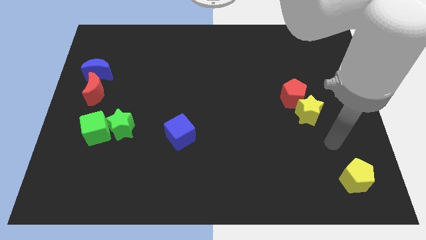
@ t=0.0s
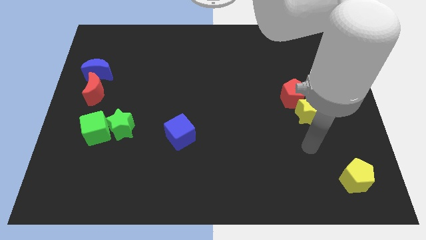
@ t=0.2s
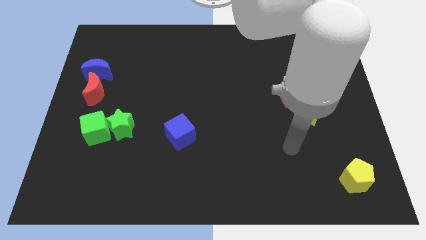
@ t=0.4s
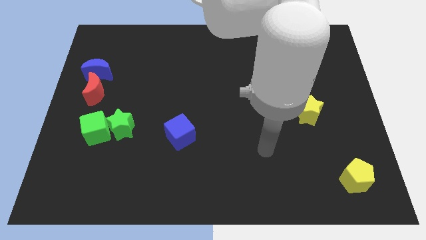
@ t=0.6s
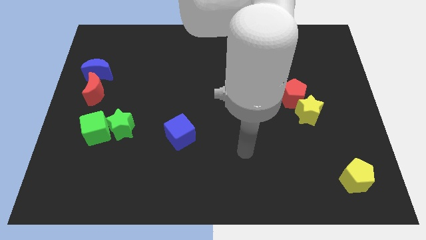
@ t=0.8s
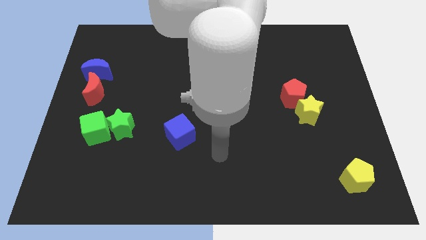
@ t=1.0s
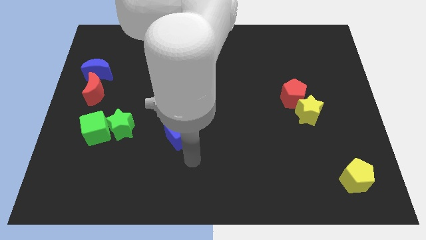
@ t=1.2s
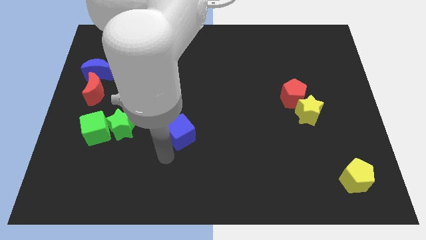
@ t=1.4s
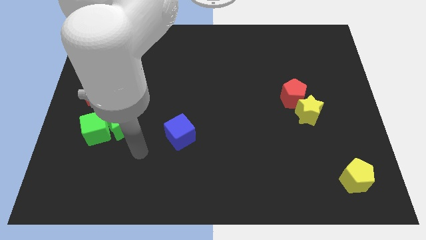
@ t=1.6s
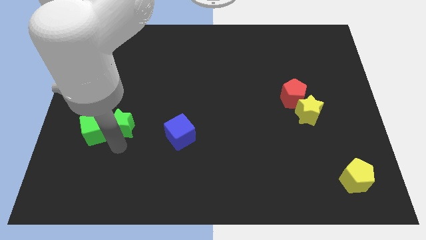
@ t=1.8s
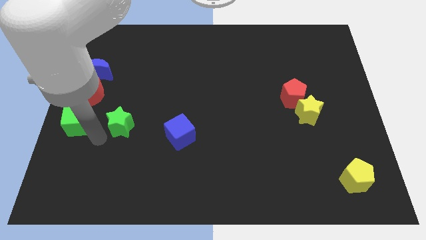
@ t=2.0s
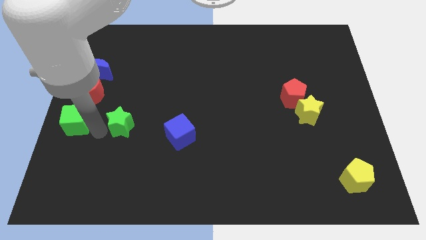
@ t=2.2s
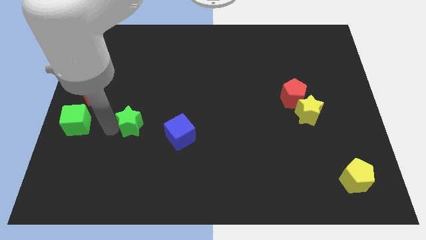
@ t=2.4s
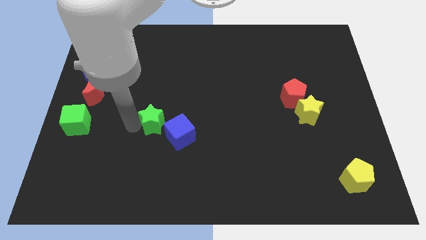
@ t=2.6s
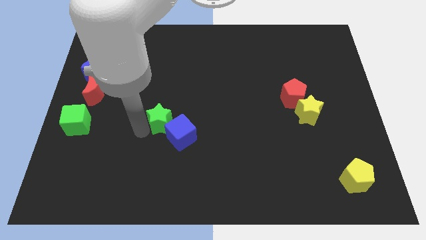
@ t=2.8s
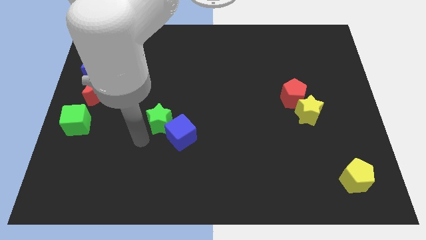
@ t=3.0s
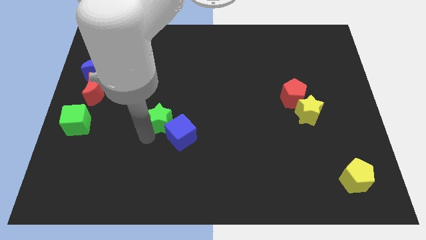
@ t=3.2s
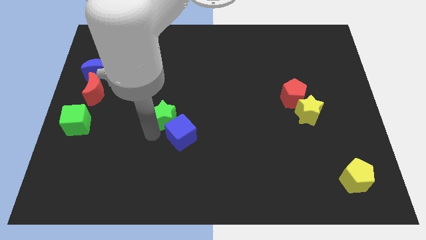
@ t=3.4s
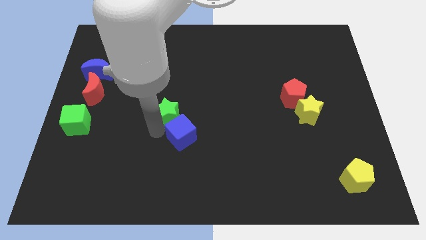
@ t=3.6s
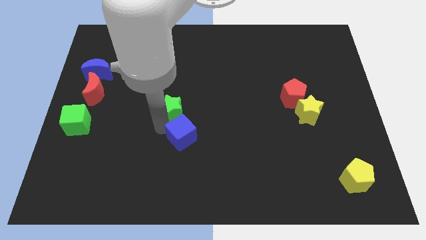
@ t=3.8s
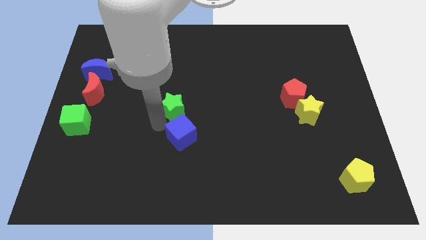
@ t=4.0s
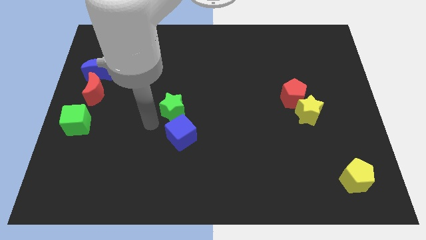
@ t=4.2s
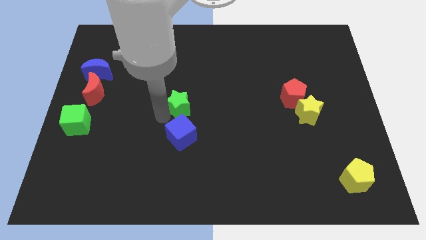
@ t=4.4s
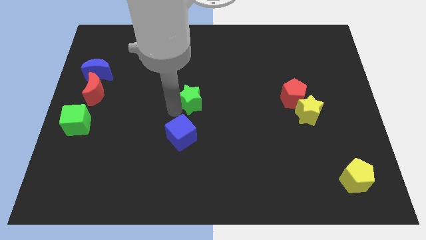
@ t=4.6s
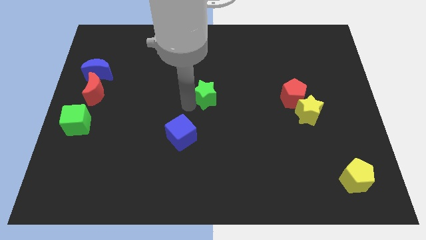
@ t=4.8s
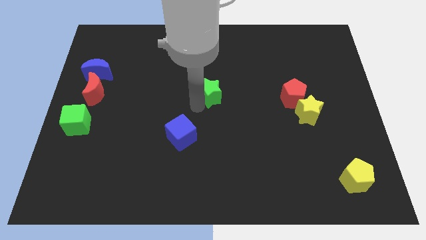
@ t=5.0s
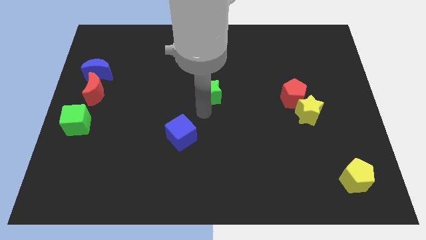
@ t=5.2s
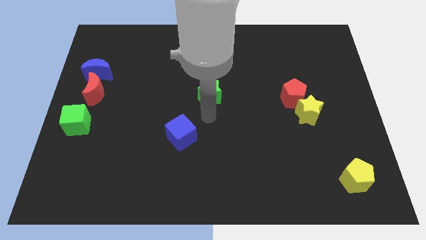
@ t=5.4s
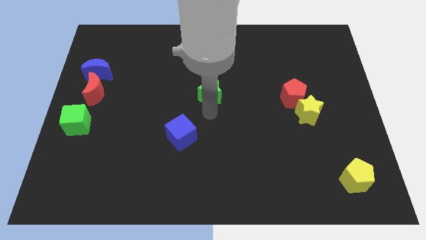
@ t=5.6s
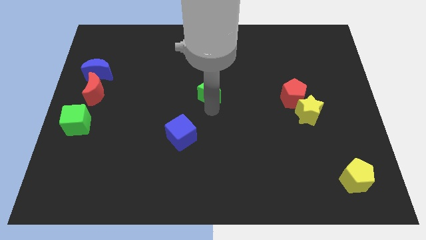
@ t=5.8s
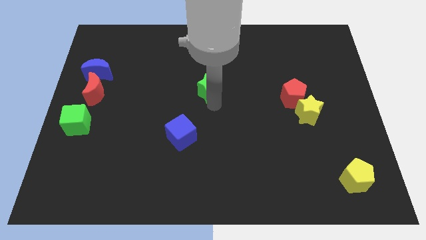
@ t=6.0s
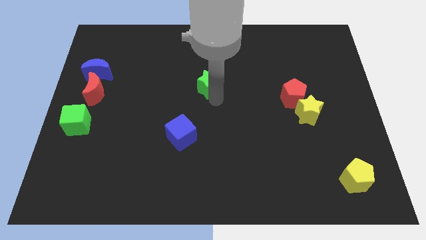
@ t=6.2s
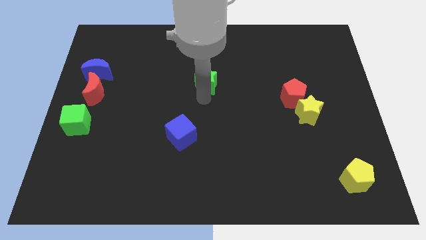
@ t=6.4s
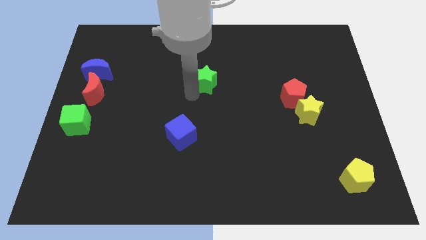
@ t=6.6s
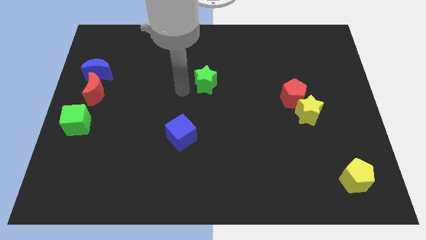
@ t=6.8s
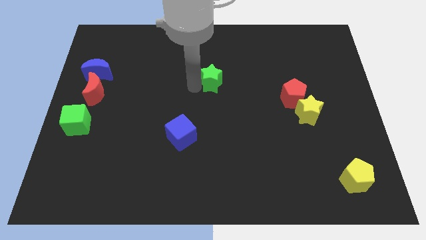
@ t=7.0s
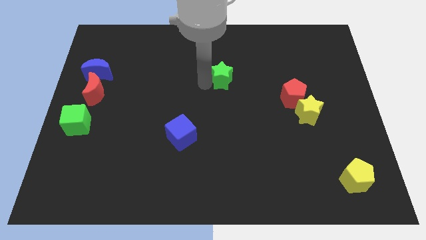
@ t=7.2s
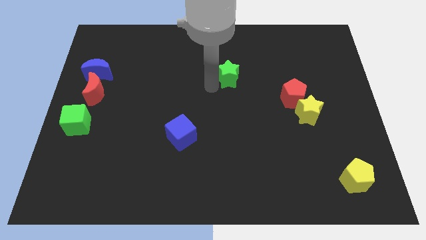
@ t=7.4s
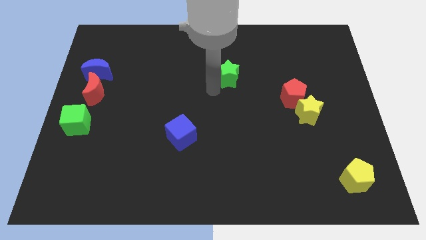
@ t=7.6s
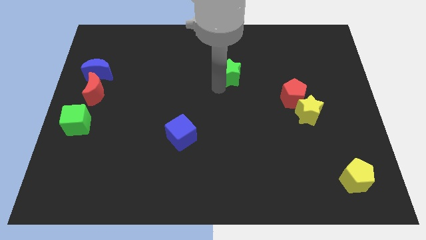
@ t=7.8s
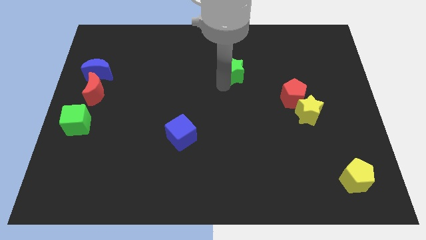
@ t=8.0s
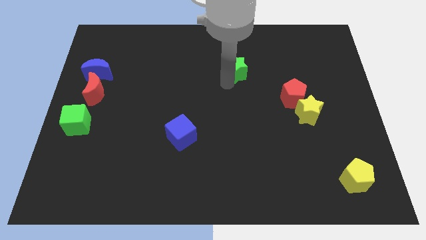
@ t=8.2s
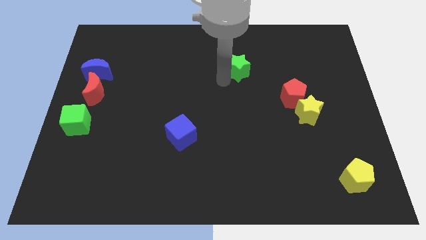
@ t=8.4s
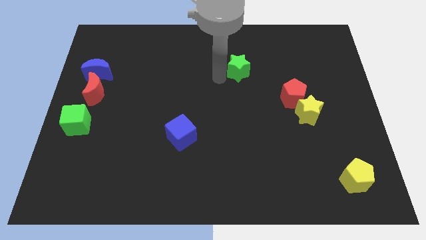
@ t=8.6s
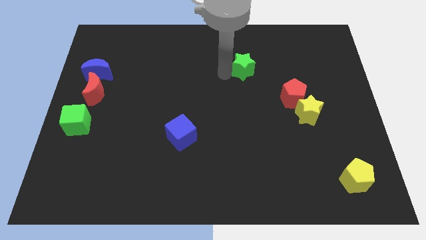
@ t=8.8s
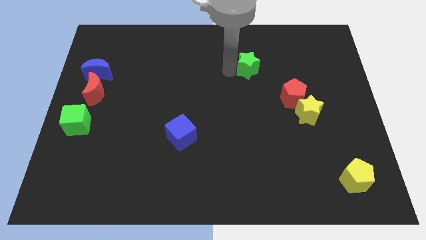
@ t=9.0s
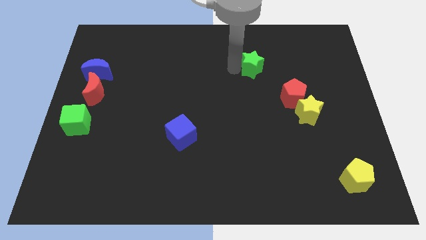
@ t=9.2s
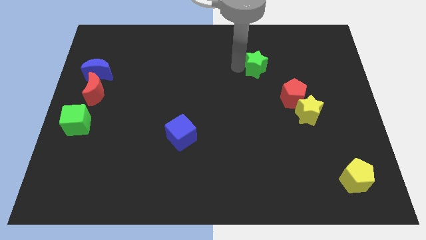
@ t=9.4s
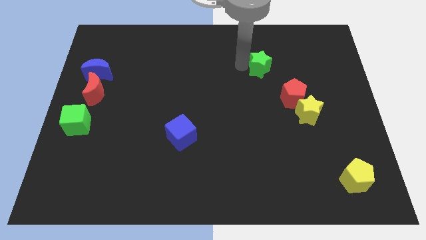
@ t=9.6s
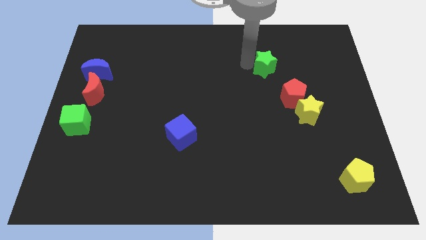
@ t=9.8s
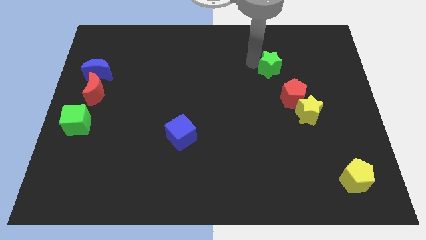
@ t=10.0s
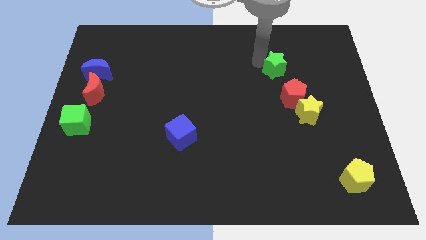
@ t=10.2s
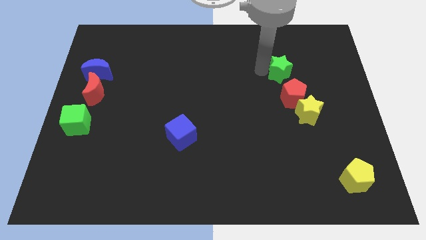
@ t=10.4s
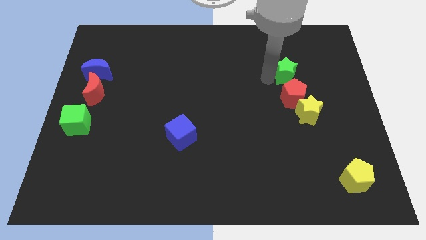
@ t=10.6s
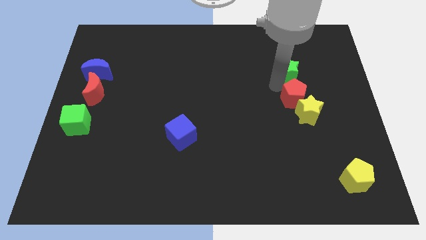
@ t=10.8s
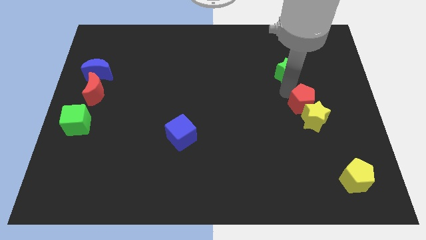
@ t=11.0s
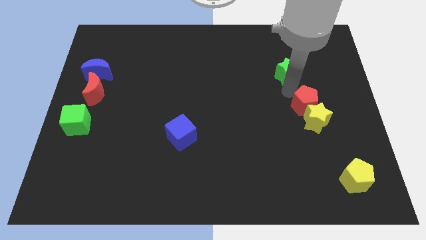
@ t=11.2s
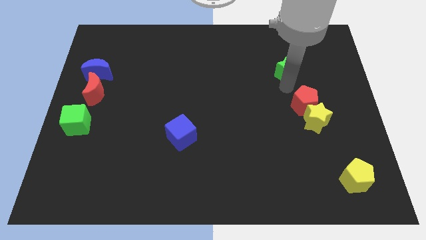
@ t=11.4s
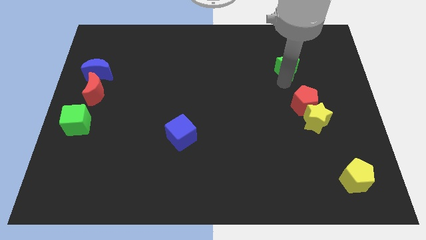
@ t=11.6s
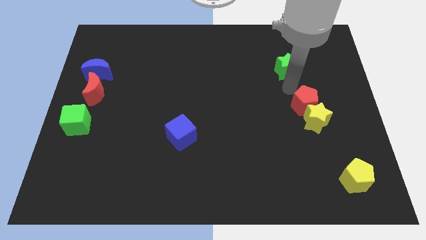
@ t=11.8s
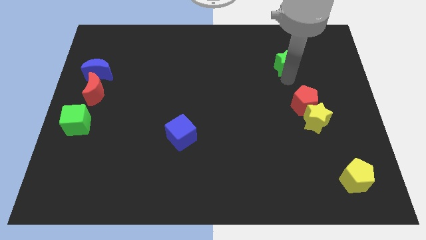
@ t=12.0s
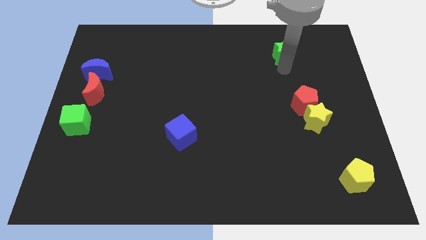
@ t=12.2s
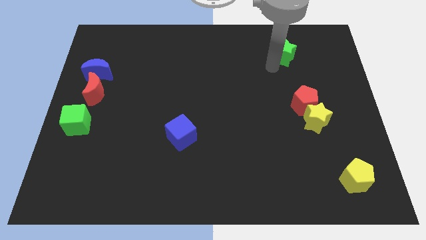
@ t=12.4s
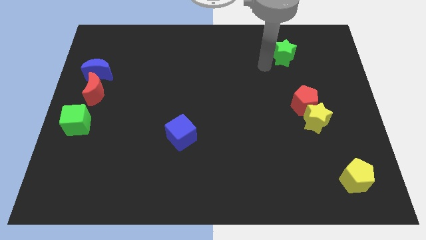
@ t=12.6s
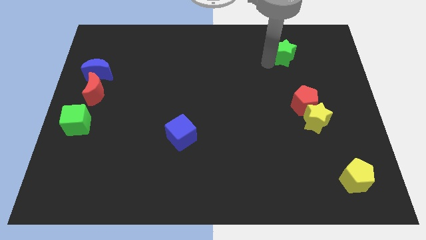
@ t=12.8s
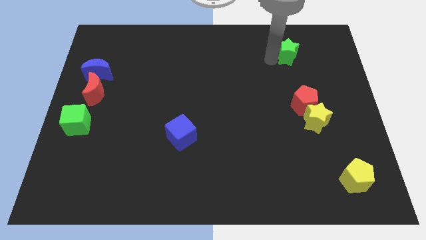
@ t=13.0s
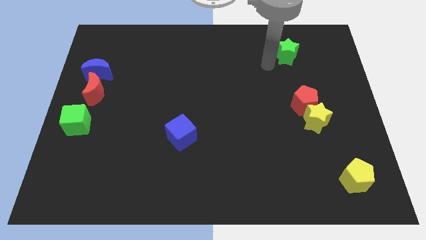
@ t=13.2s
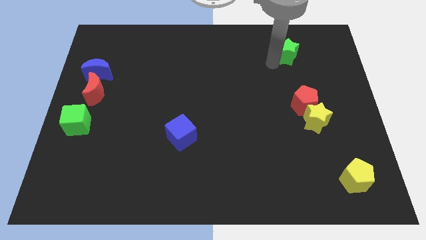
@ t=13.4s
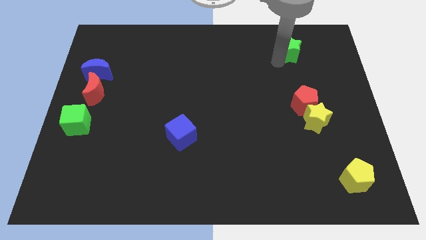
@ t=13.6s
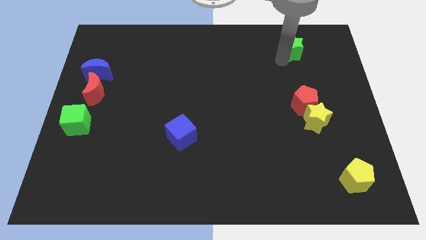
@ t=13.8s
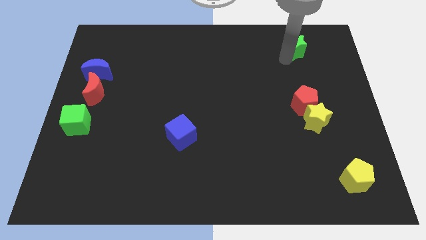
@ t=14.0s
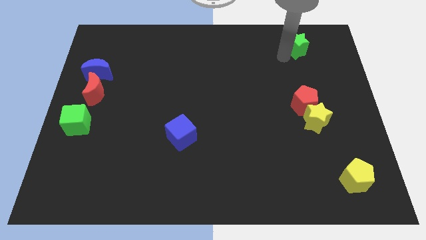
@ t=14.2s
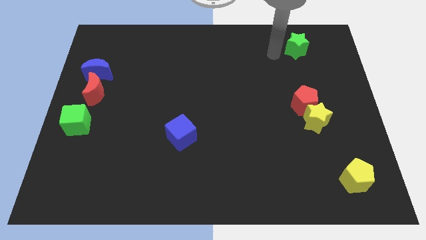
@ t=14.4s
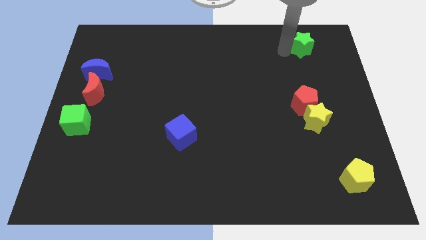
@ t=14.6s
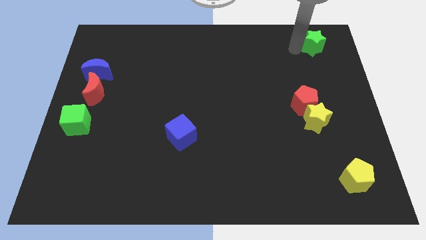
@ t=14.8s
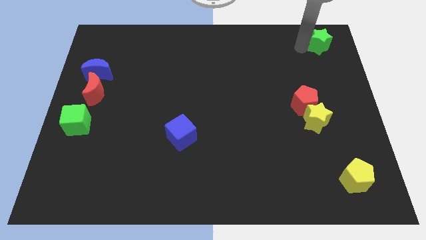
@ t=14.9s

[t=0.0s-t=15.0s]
push the green star to the upper right corner
